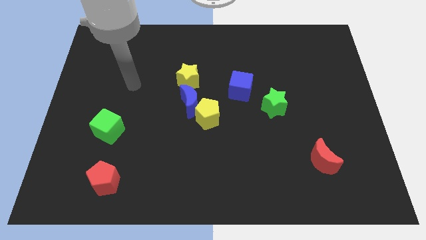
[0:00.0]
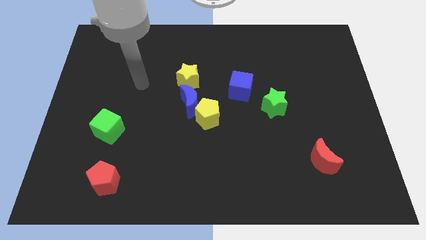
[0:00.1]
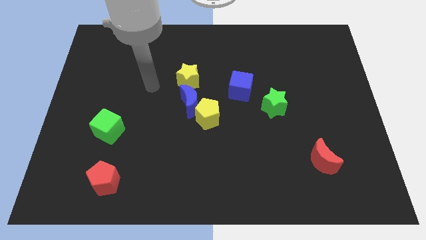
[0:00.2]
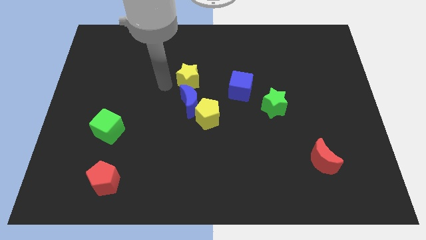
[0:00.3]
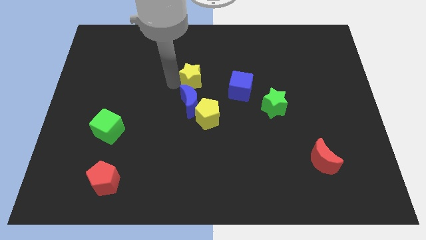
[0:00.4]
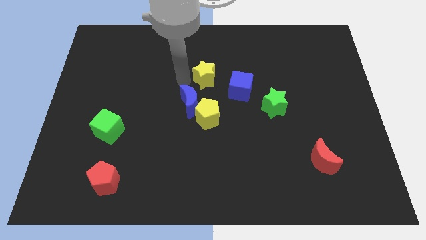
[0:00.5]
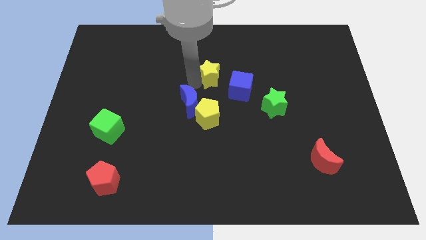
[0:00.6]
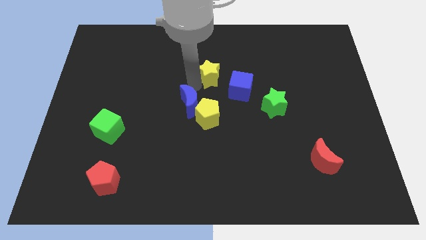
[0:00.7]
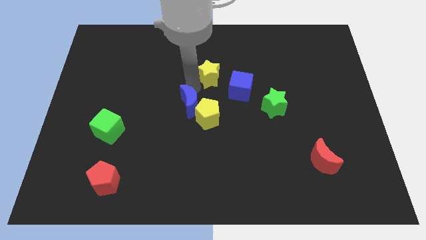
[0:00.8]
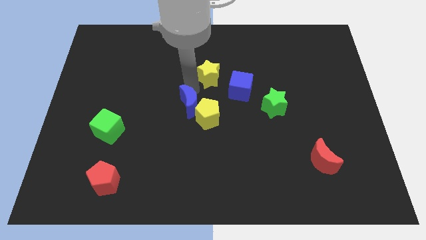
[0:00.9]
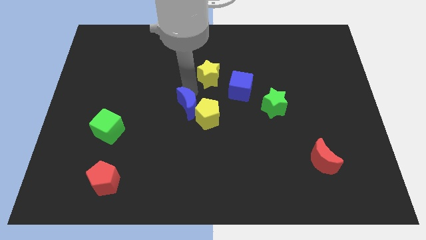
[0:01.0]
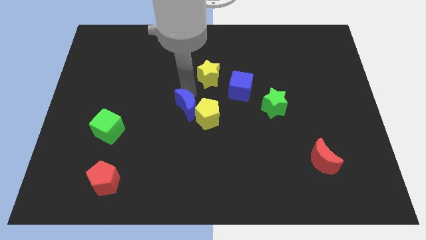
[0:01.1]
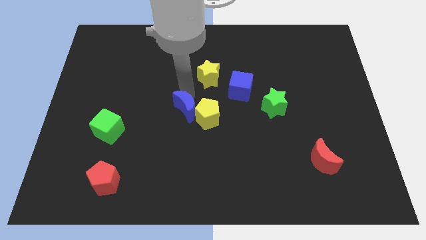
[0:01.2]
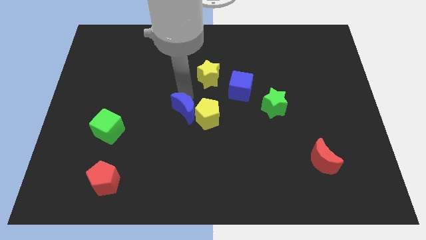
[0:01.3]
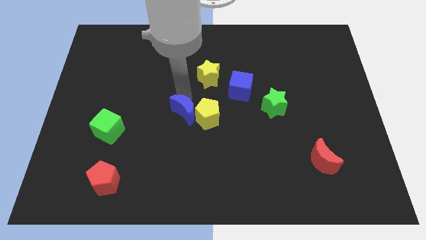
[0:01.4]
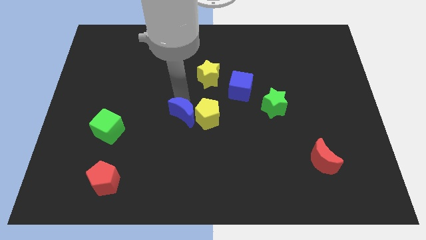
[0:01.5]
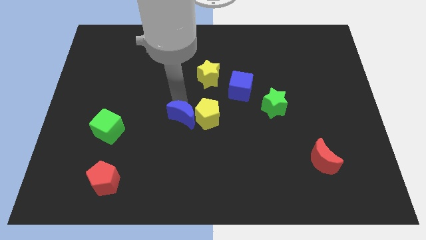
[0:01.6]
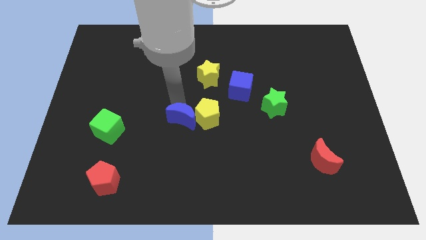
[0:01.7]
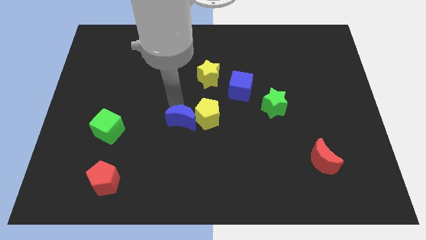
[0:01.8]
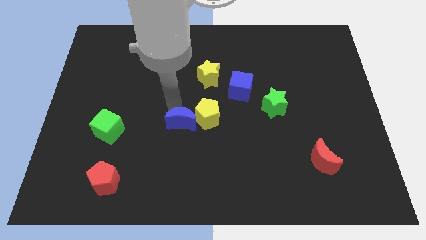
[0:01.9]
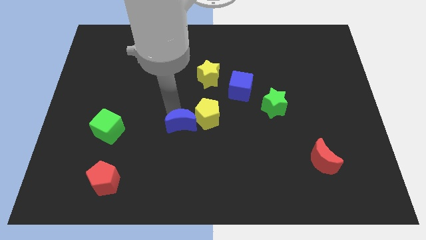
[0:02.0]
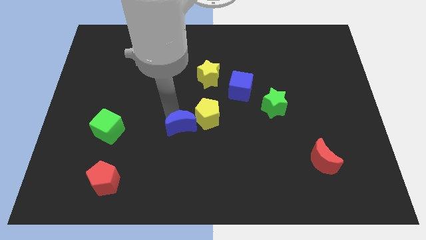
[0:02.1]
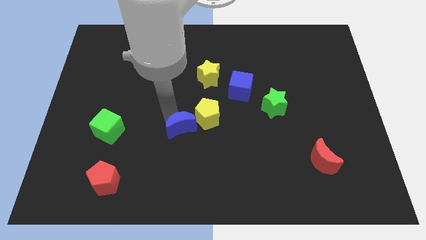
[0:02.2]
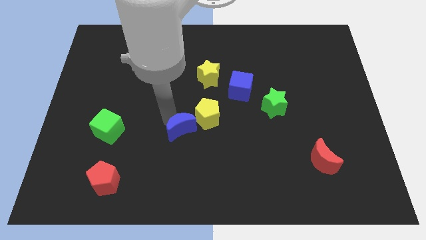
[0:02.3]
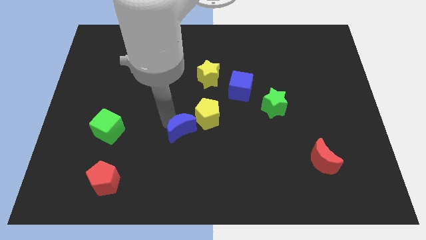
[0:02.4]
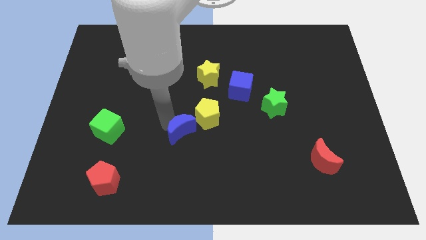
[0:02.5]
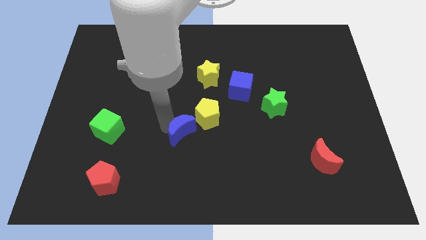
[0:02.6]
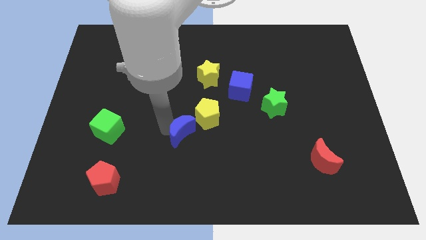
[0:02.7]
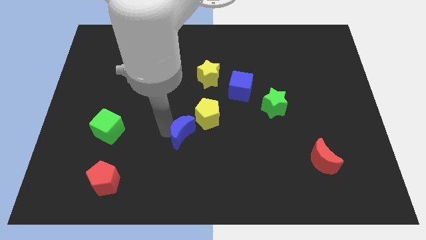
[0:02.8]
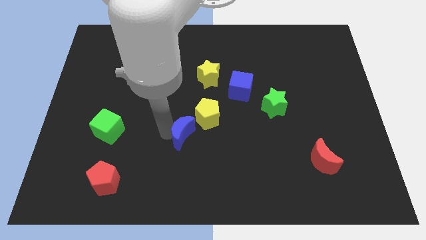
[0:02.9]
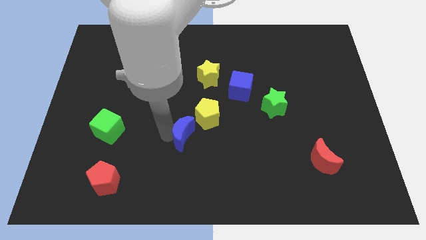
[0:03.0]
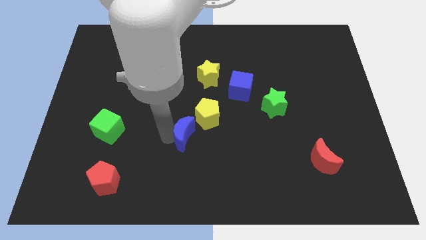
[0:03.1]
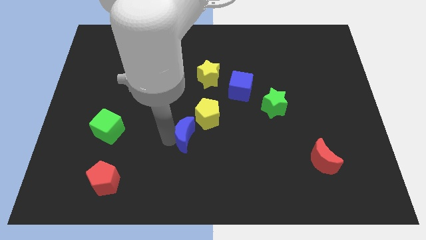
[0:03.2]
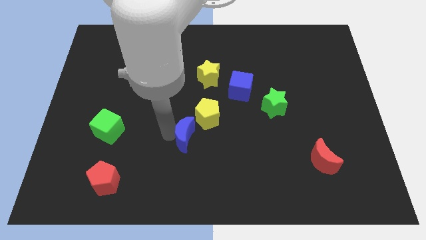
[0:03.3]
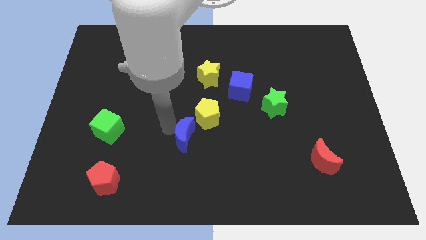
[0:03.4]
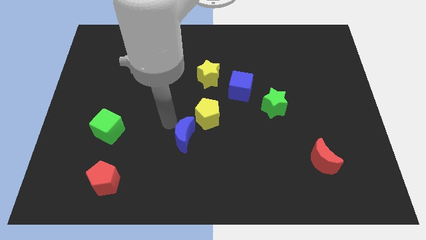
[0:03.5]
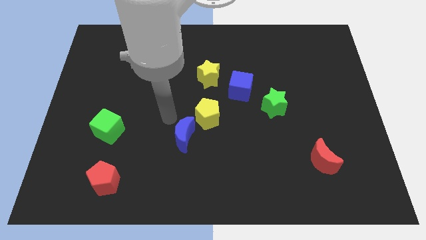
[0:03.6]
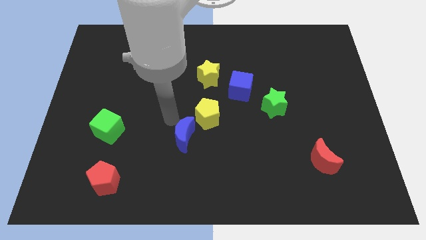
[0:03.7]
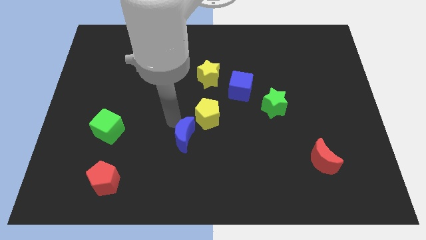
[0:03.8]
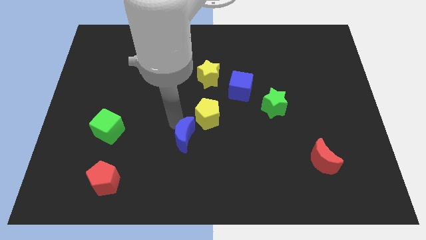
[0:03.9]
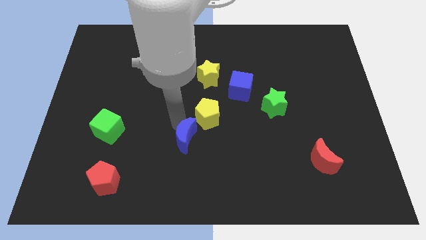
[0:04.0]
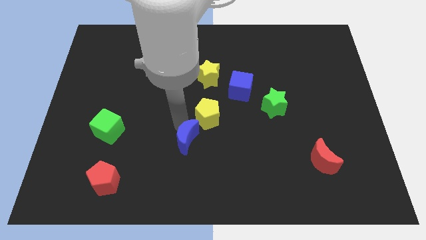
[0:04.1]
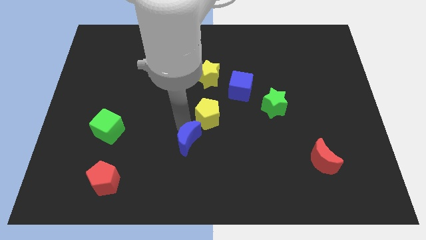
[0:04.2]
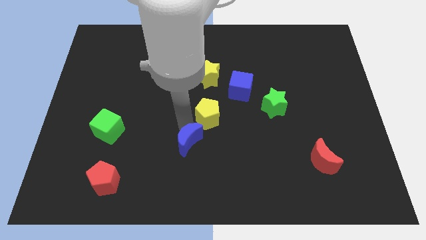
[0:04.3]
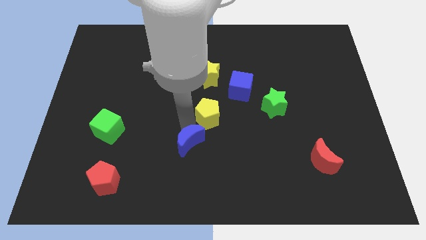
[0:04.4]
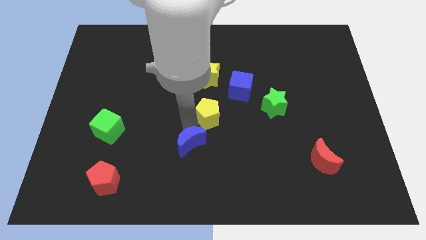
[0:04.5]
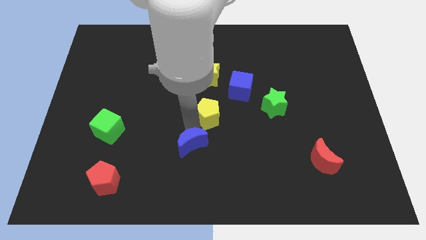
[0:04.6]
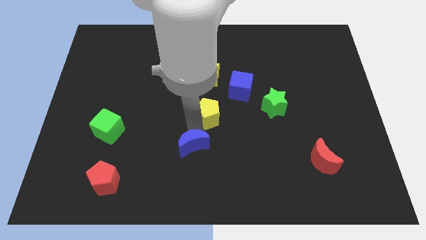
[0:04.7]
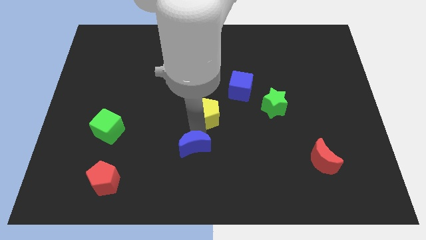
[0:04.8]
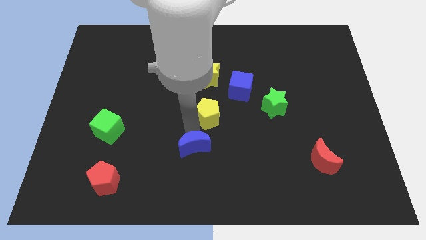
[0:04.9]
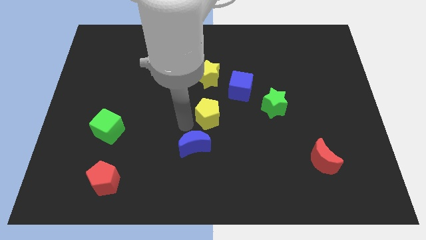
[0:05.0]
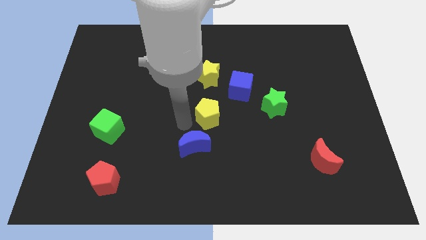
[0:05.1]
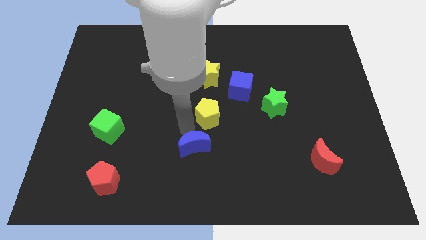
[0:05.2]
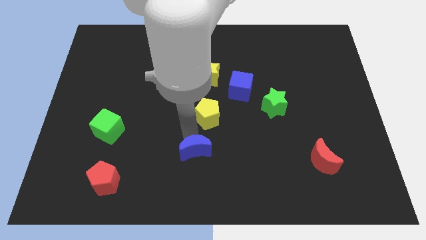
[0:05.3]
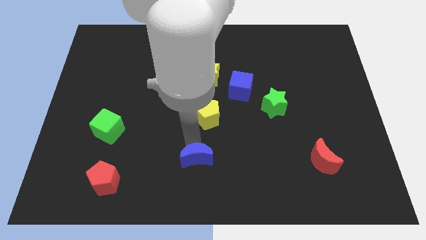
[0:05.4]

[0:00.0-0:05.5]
slide the blue moon to the bottom side

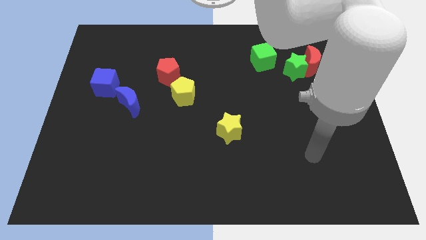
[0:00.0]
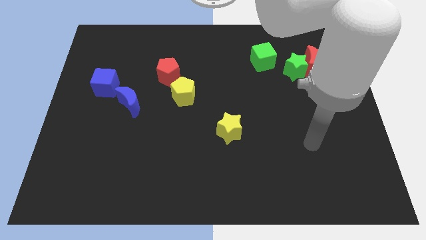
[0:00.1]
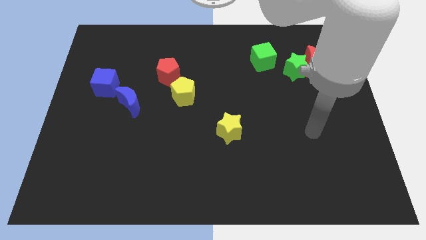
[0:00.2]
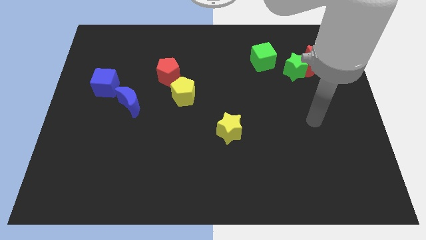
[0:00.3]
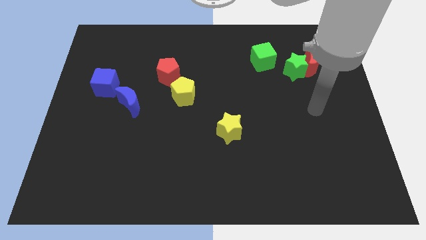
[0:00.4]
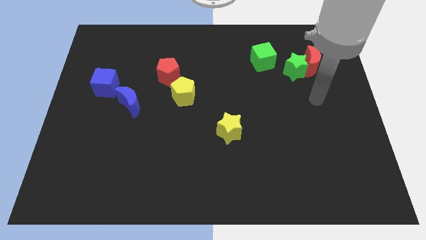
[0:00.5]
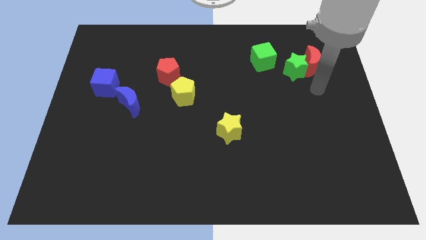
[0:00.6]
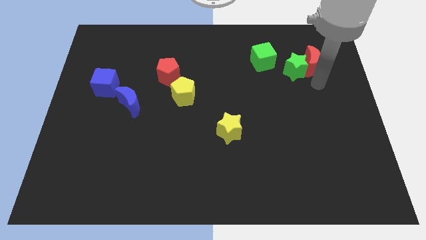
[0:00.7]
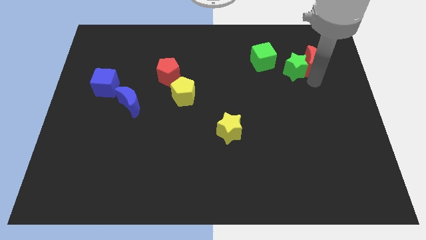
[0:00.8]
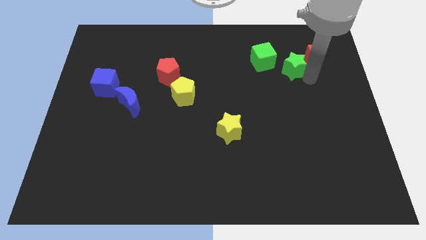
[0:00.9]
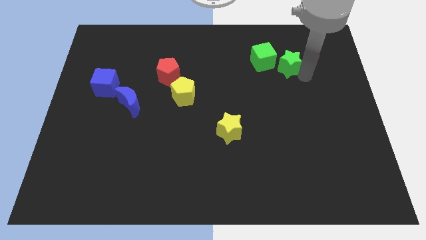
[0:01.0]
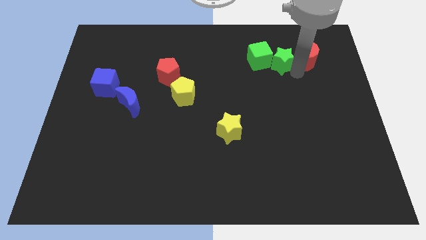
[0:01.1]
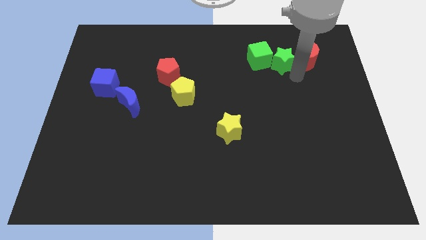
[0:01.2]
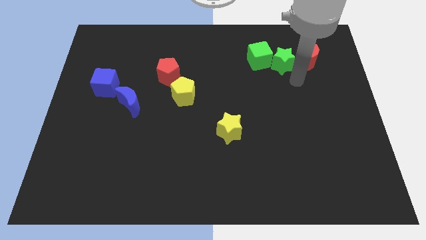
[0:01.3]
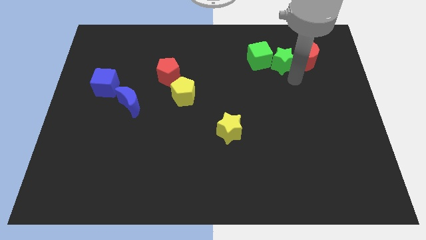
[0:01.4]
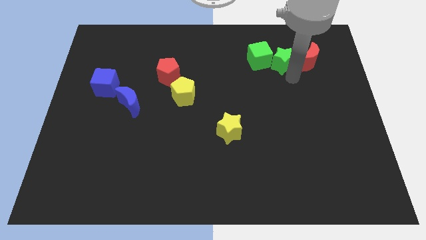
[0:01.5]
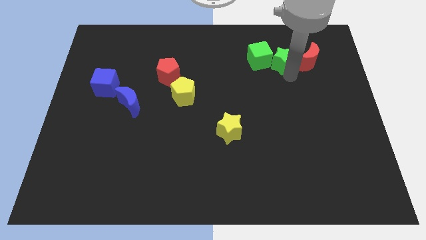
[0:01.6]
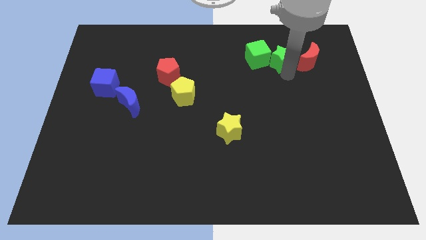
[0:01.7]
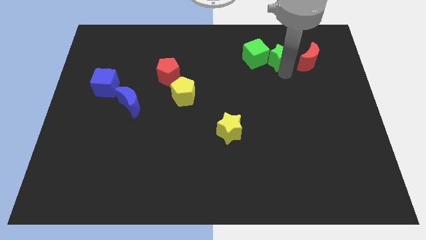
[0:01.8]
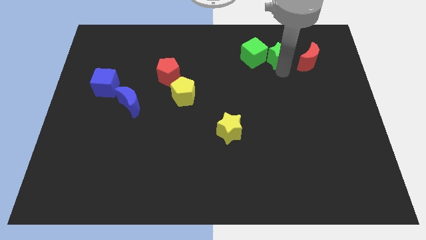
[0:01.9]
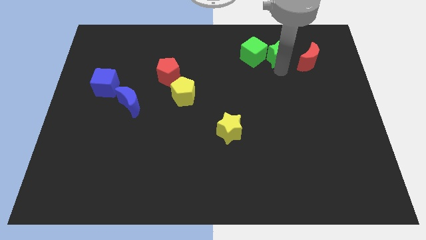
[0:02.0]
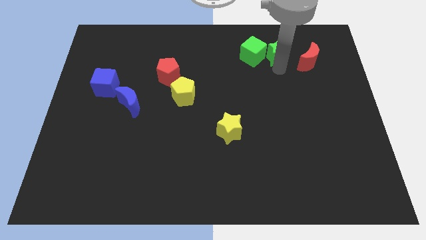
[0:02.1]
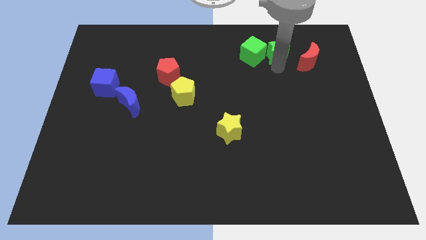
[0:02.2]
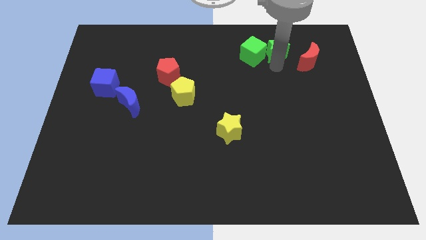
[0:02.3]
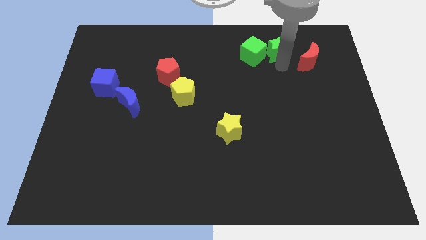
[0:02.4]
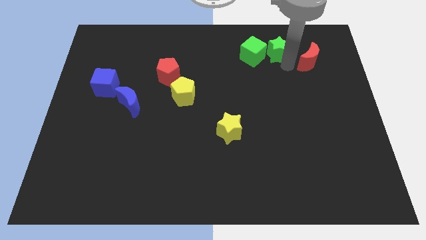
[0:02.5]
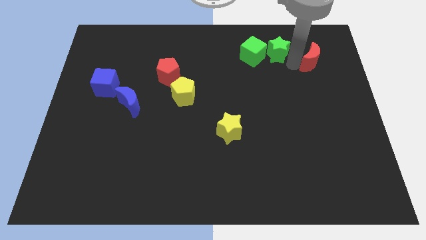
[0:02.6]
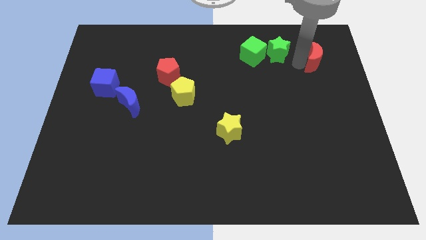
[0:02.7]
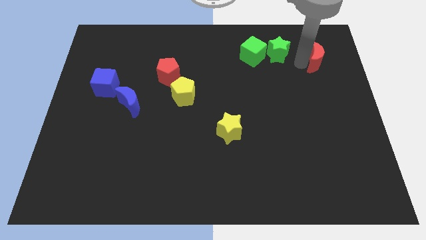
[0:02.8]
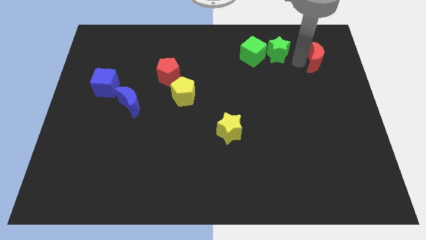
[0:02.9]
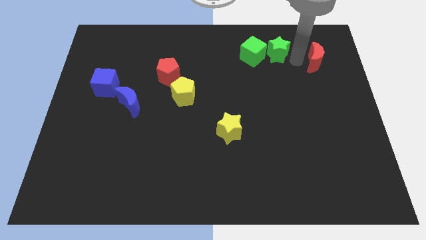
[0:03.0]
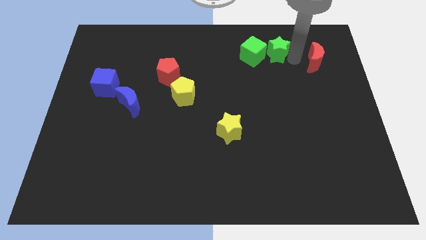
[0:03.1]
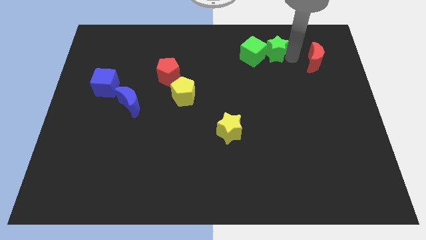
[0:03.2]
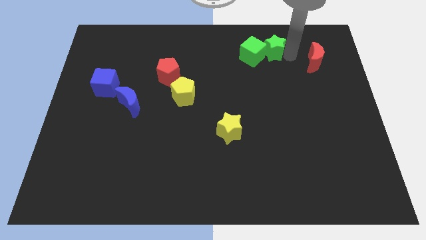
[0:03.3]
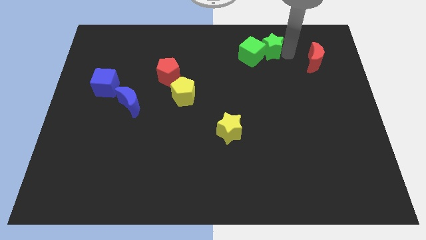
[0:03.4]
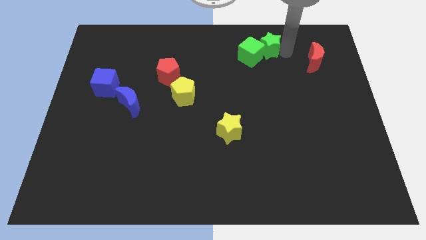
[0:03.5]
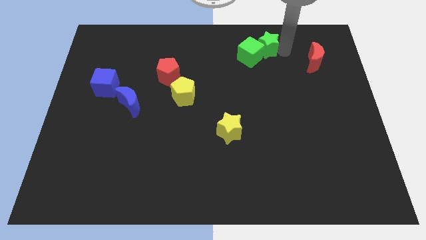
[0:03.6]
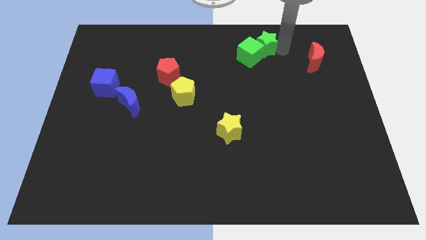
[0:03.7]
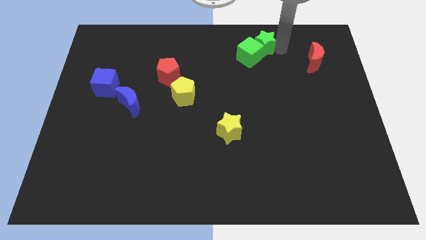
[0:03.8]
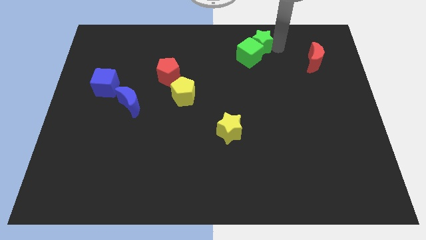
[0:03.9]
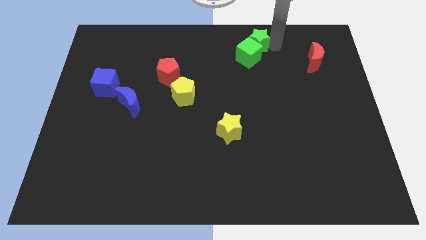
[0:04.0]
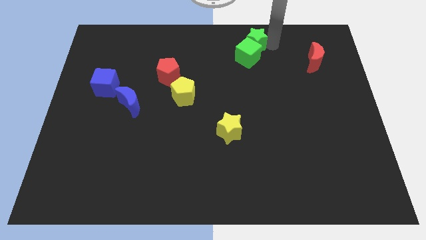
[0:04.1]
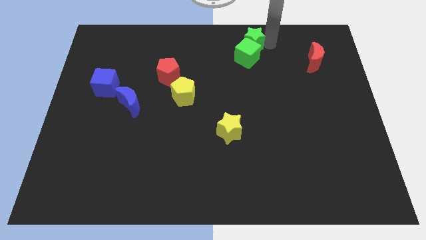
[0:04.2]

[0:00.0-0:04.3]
put the green star to the top side
